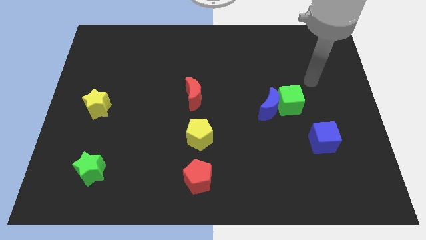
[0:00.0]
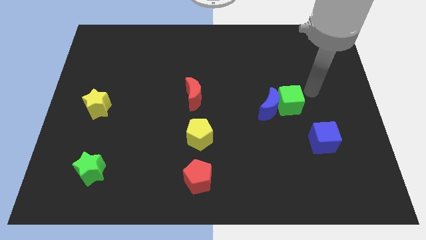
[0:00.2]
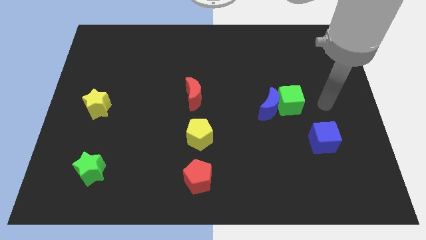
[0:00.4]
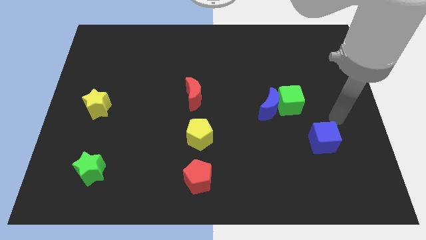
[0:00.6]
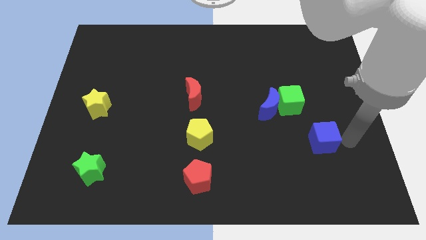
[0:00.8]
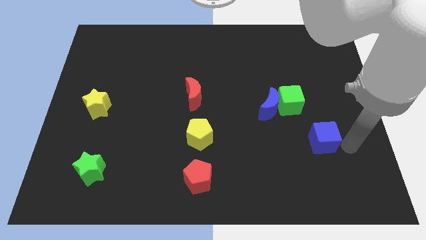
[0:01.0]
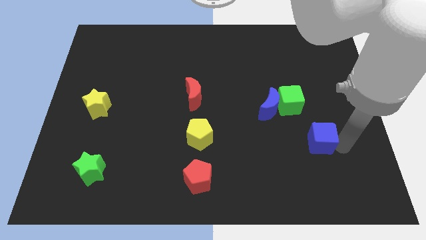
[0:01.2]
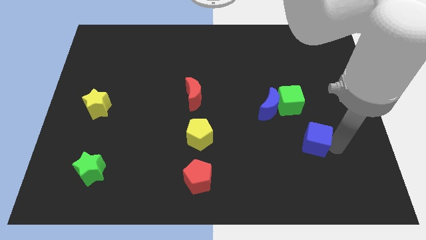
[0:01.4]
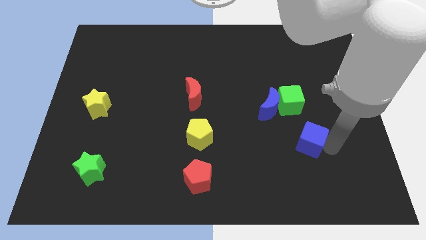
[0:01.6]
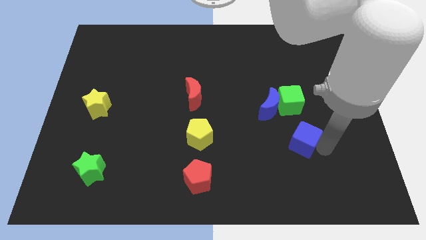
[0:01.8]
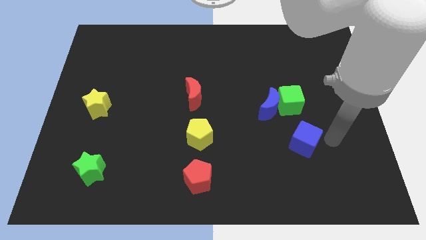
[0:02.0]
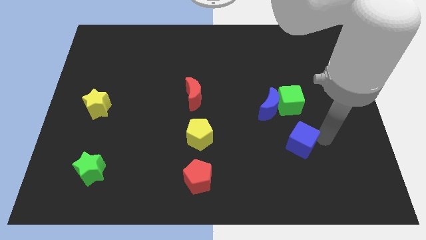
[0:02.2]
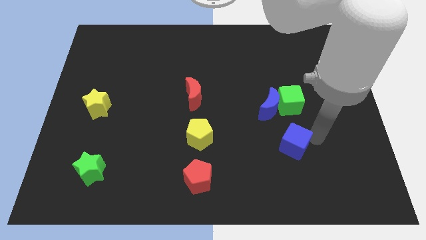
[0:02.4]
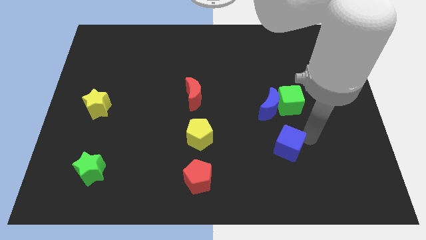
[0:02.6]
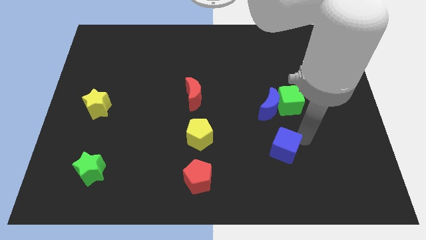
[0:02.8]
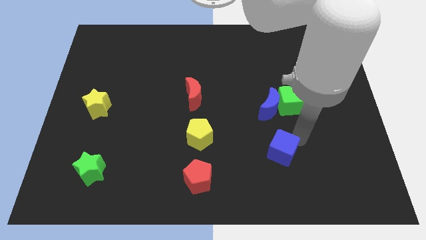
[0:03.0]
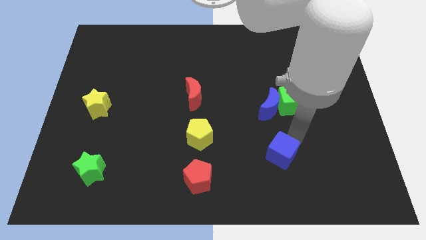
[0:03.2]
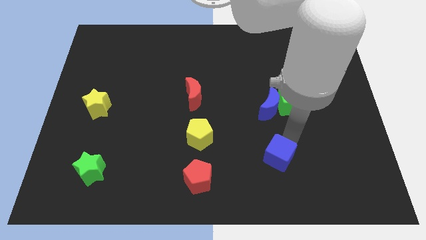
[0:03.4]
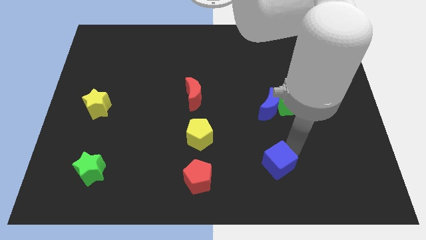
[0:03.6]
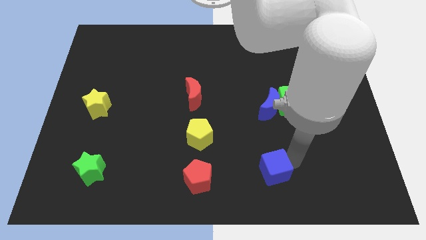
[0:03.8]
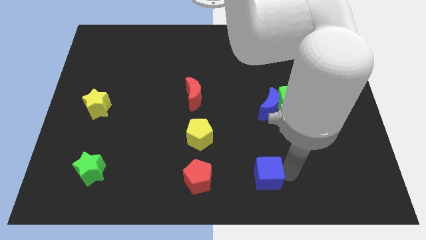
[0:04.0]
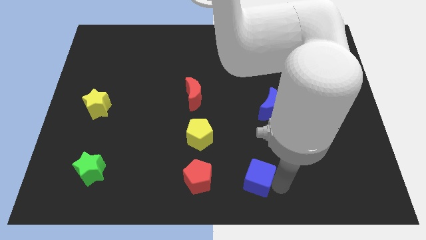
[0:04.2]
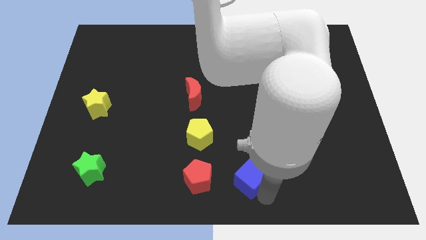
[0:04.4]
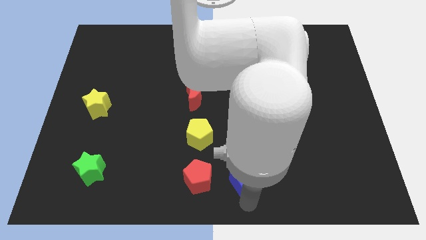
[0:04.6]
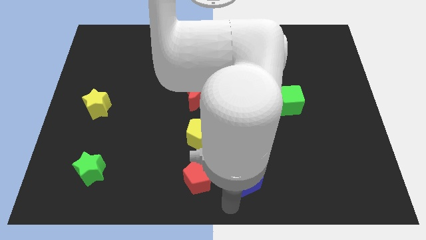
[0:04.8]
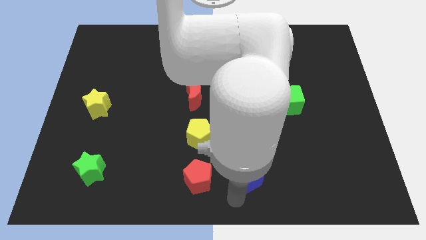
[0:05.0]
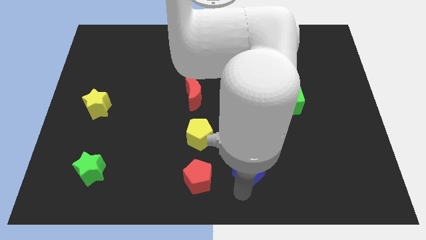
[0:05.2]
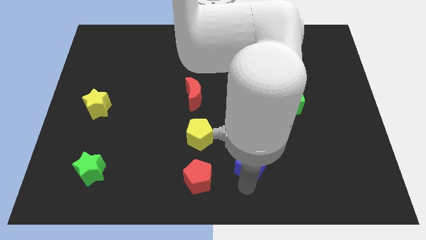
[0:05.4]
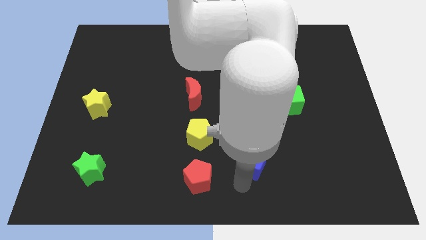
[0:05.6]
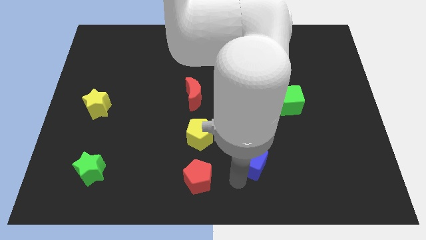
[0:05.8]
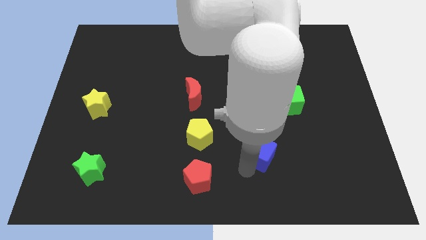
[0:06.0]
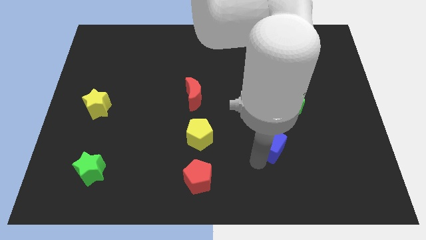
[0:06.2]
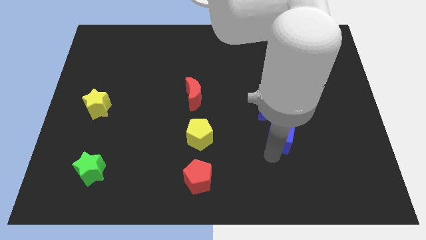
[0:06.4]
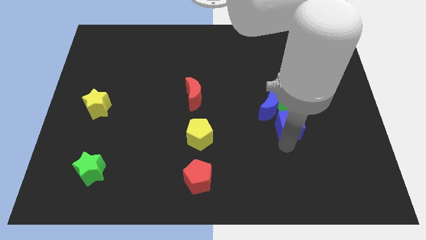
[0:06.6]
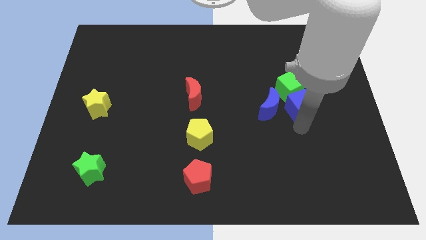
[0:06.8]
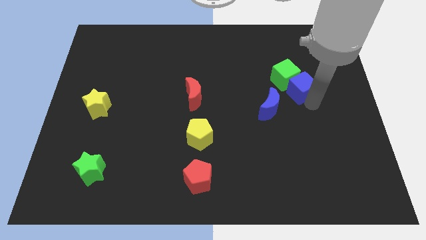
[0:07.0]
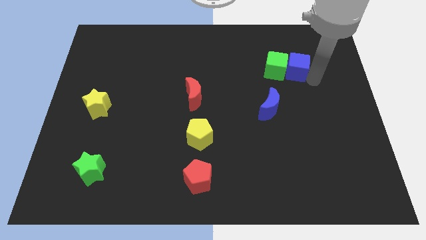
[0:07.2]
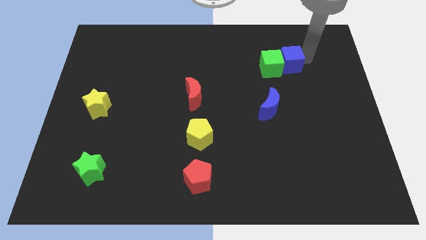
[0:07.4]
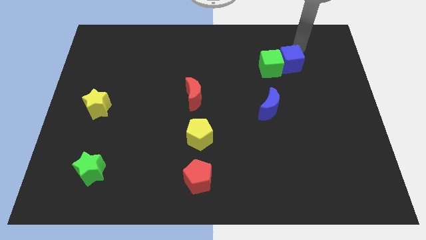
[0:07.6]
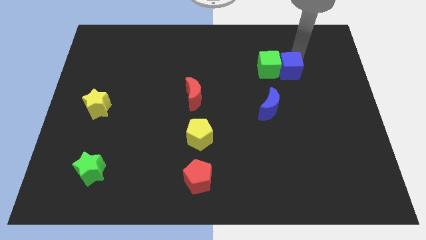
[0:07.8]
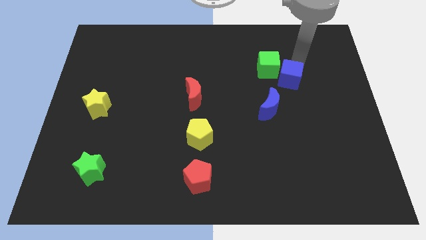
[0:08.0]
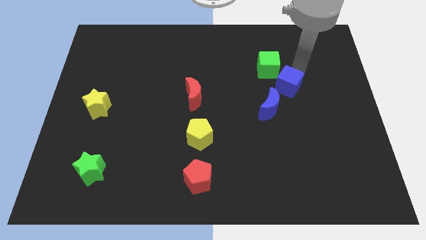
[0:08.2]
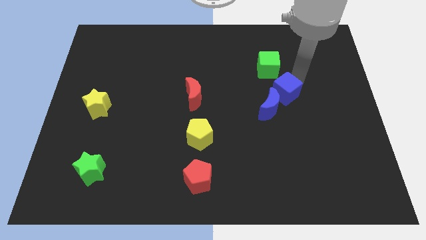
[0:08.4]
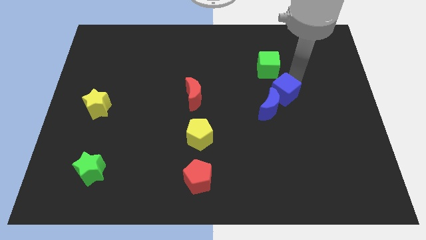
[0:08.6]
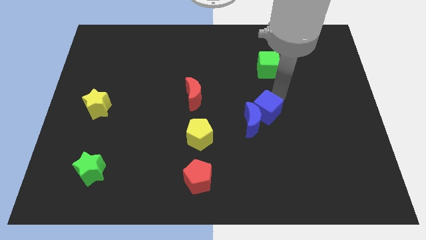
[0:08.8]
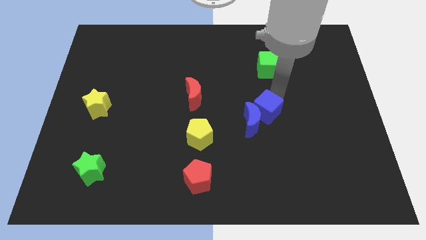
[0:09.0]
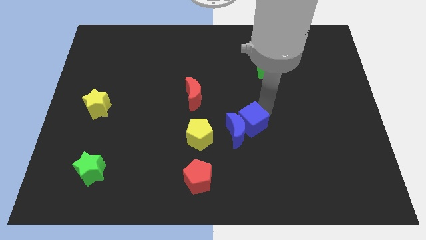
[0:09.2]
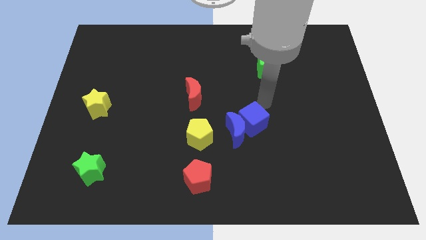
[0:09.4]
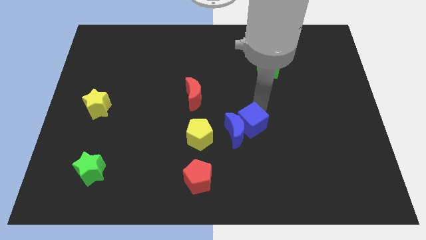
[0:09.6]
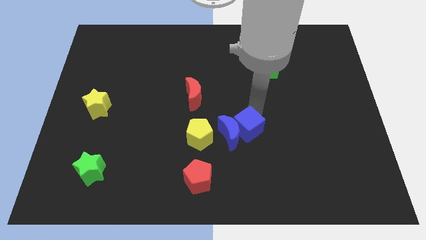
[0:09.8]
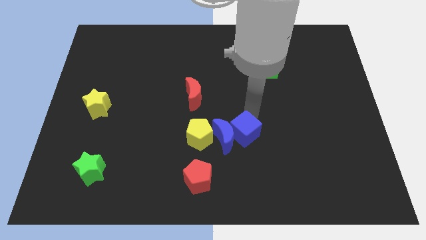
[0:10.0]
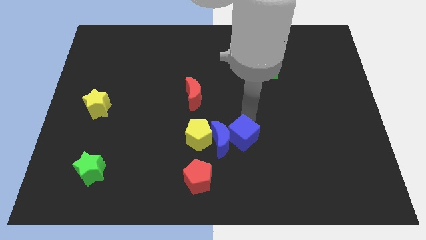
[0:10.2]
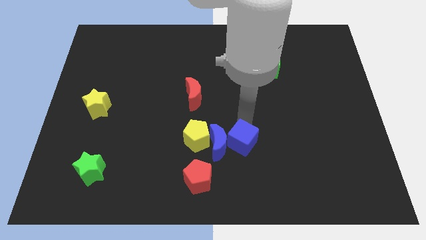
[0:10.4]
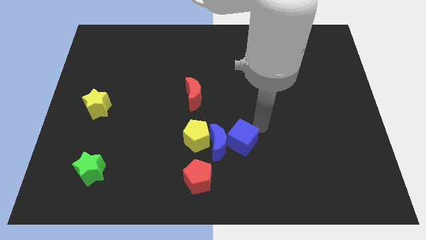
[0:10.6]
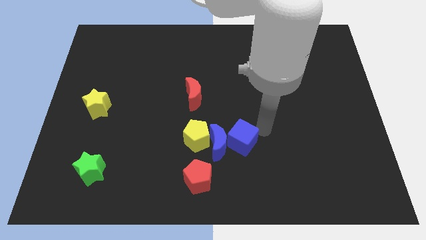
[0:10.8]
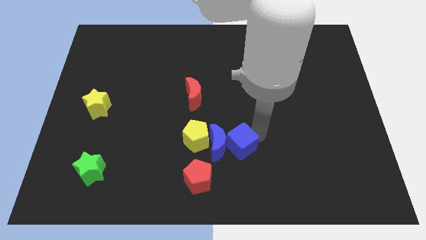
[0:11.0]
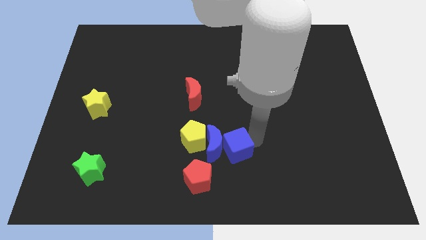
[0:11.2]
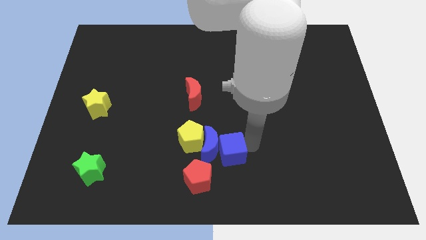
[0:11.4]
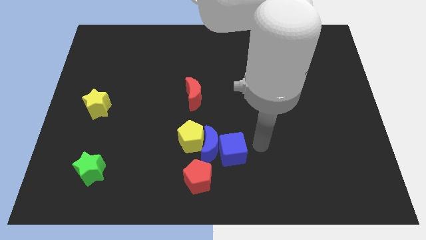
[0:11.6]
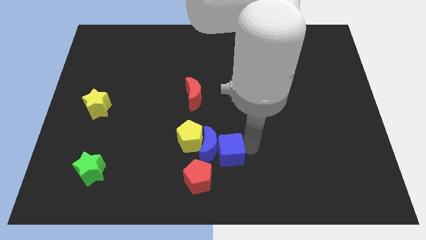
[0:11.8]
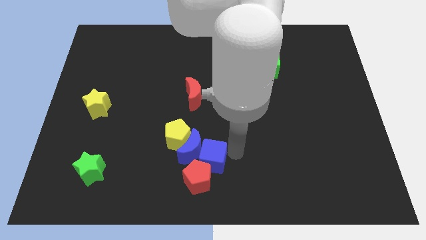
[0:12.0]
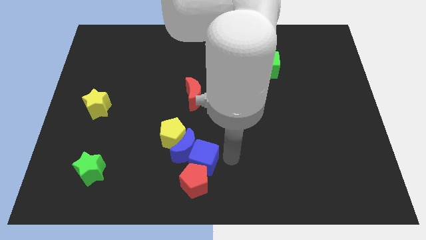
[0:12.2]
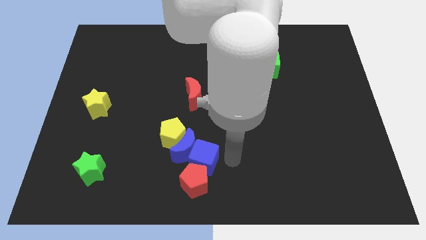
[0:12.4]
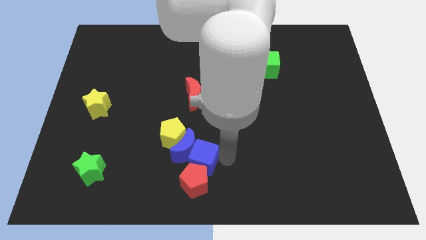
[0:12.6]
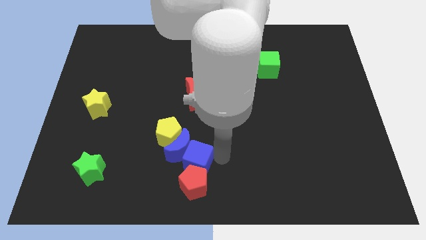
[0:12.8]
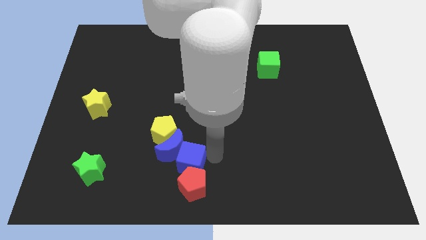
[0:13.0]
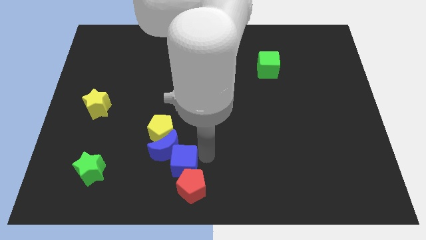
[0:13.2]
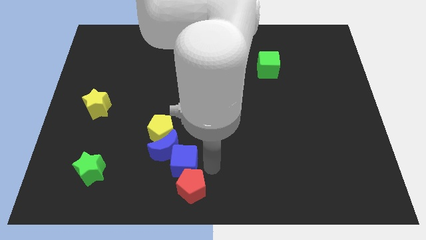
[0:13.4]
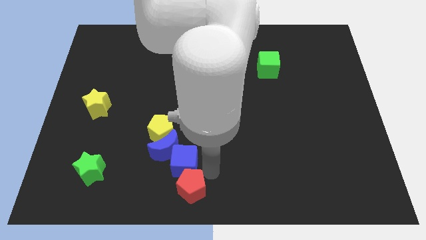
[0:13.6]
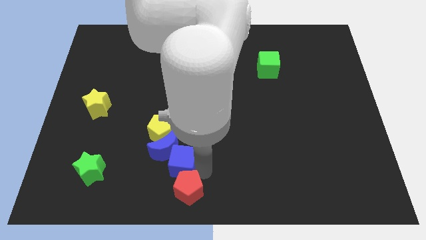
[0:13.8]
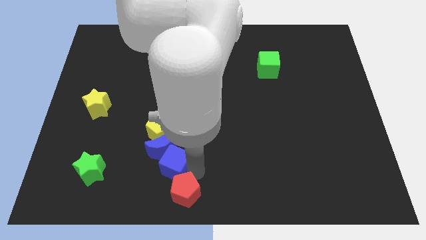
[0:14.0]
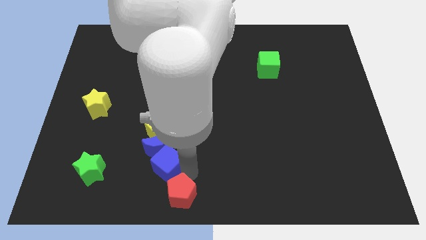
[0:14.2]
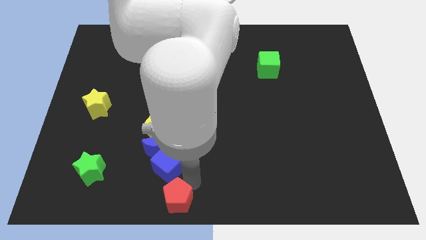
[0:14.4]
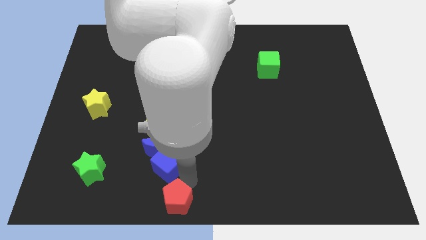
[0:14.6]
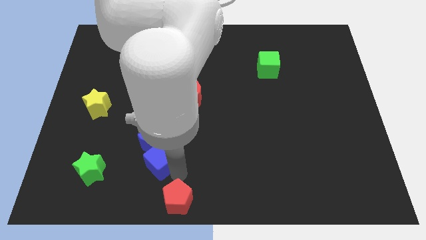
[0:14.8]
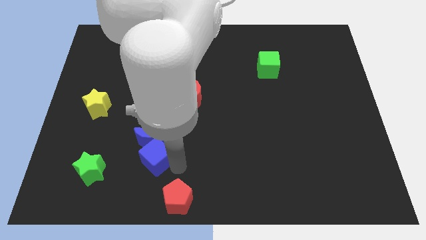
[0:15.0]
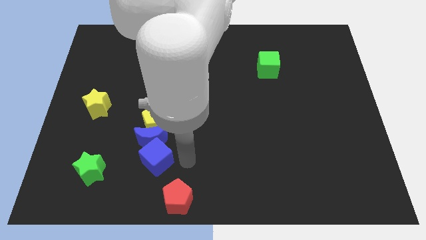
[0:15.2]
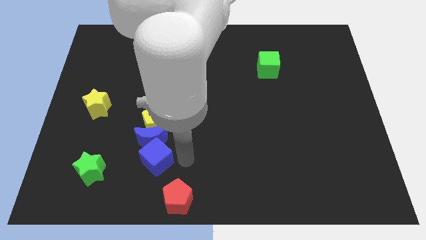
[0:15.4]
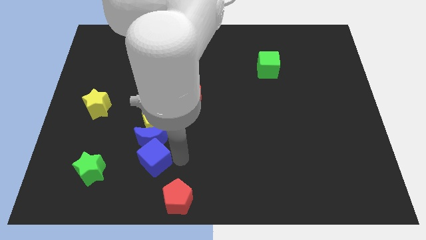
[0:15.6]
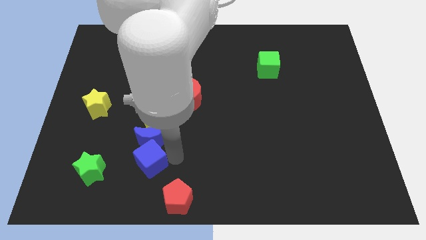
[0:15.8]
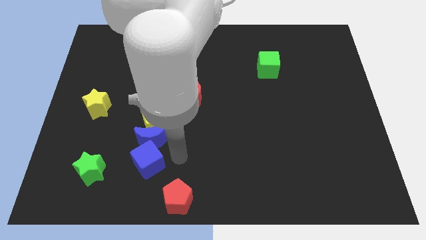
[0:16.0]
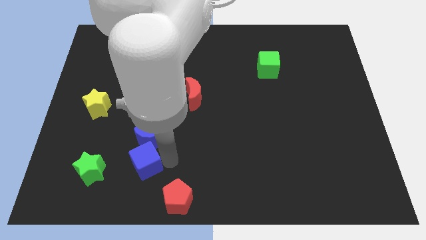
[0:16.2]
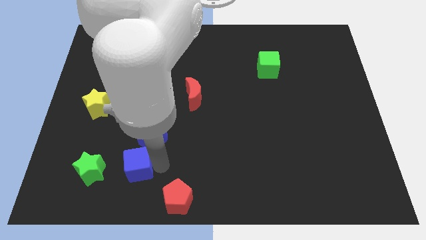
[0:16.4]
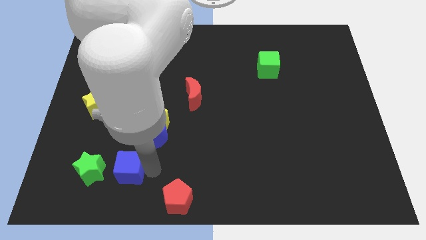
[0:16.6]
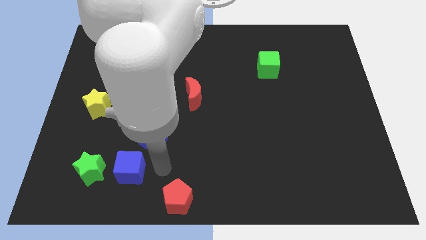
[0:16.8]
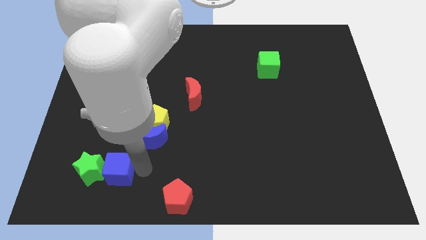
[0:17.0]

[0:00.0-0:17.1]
push the blue cube towards the green star
